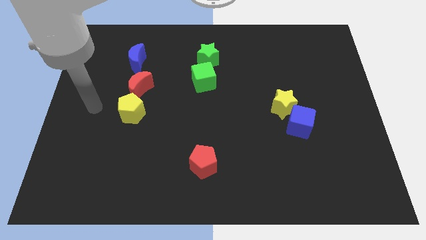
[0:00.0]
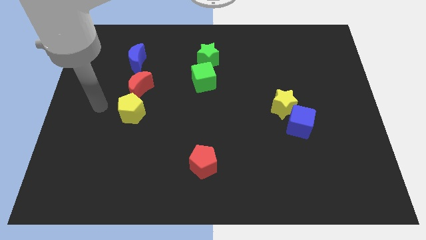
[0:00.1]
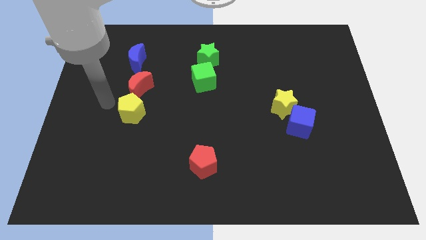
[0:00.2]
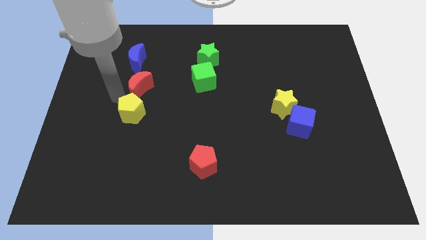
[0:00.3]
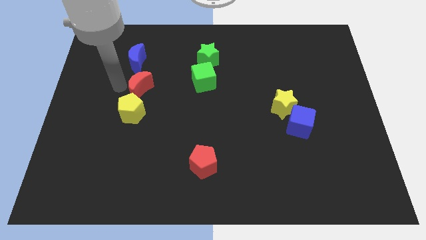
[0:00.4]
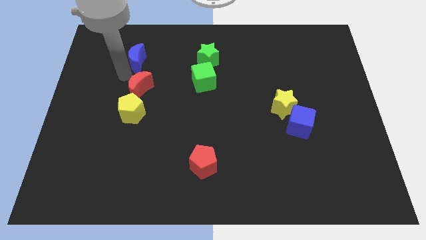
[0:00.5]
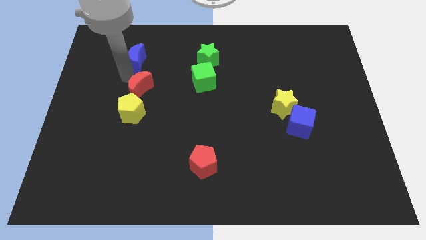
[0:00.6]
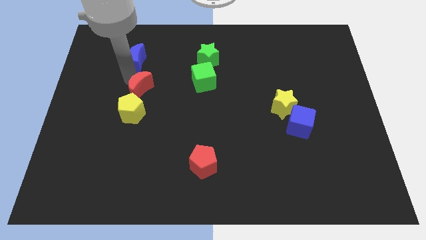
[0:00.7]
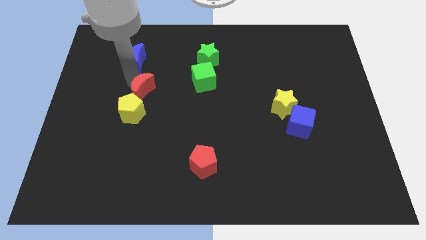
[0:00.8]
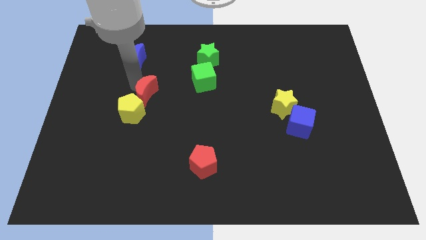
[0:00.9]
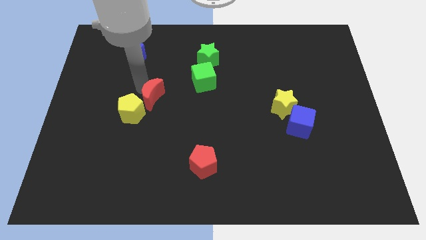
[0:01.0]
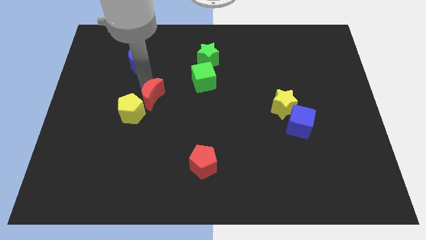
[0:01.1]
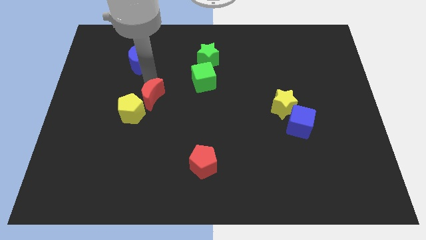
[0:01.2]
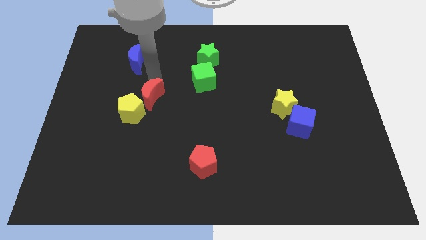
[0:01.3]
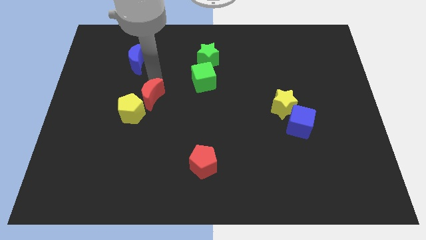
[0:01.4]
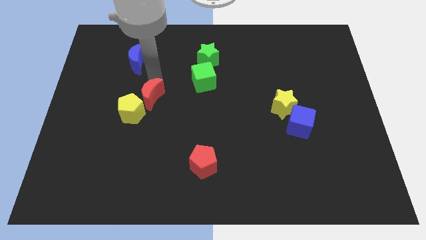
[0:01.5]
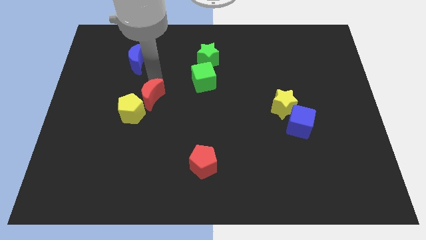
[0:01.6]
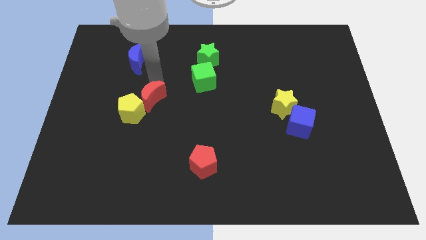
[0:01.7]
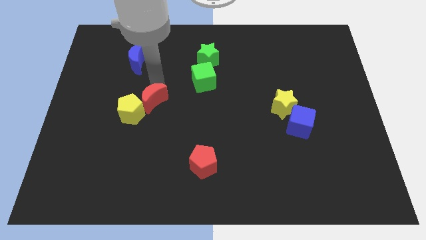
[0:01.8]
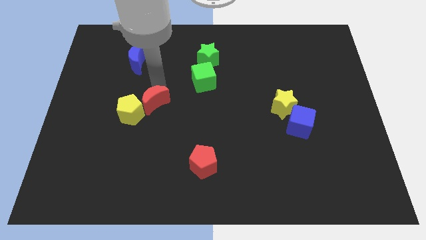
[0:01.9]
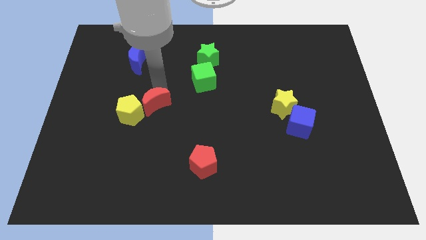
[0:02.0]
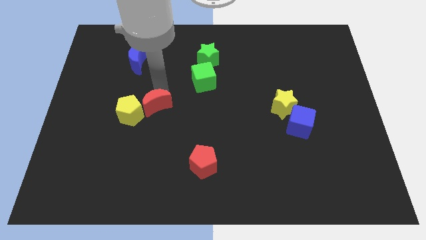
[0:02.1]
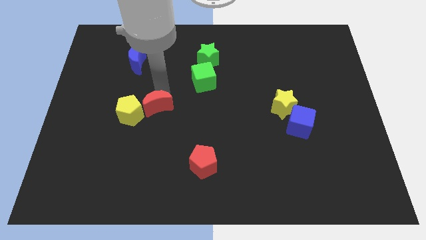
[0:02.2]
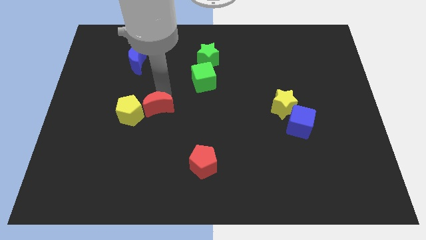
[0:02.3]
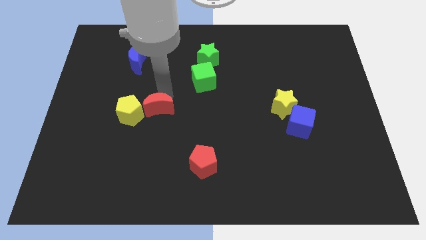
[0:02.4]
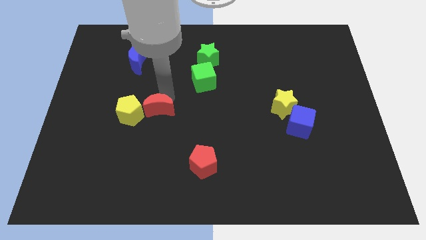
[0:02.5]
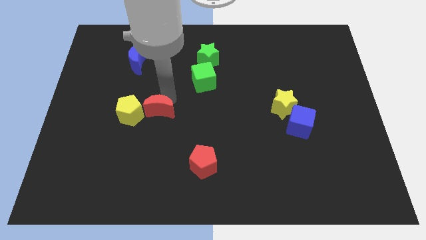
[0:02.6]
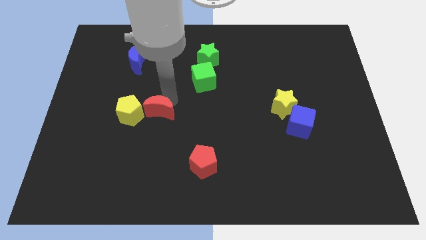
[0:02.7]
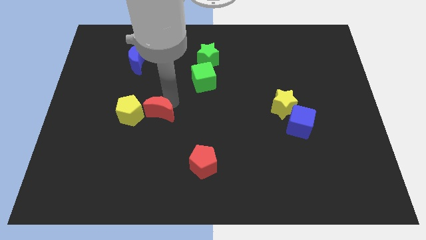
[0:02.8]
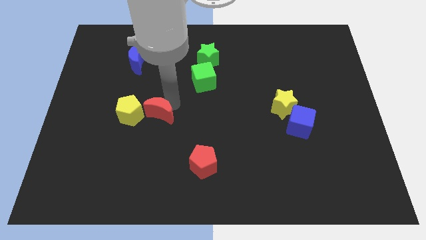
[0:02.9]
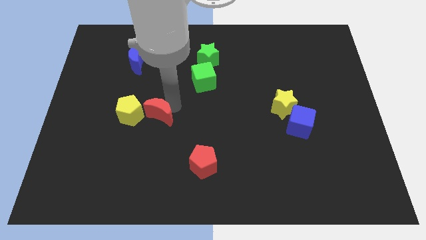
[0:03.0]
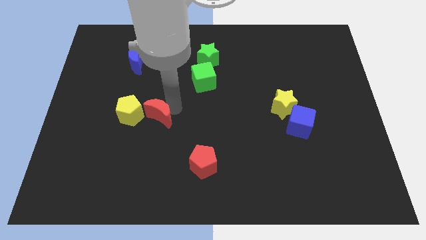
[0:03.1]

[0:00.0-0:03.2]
slide the red moon down slightly

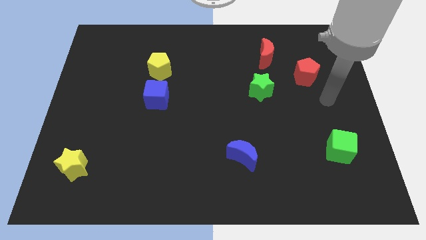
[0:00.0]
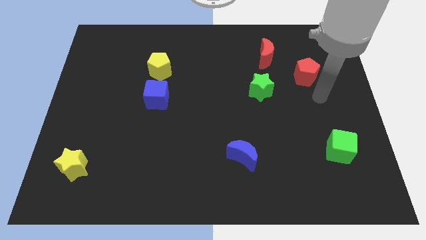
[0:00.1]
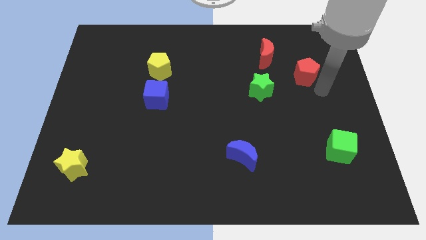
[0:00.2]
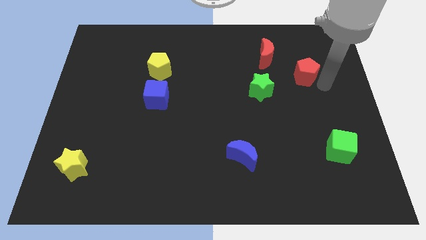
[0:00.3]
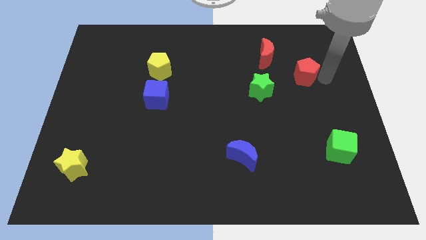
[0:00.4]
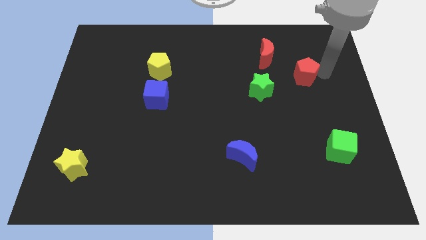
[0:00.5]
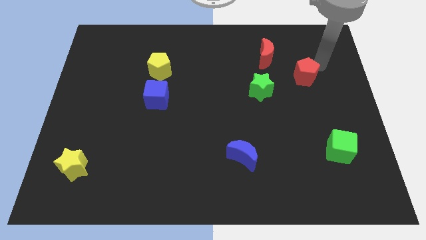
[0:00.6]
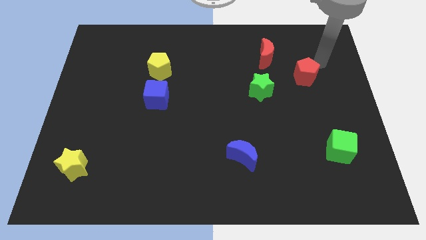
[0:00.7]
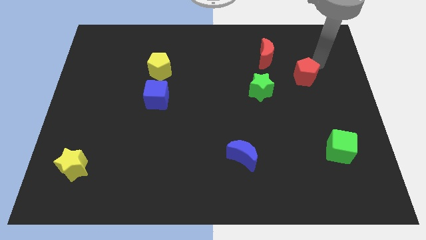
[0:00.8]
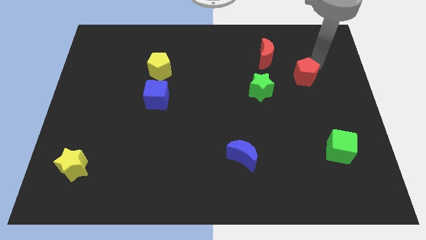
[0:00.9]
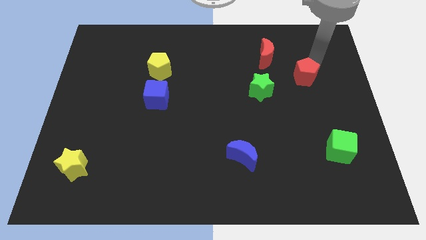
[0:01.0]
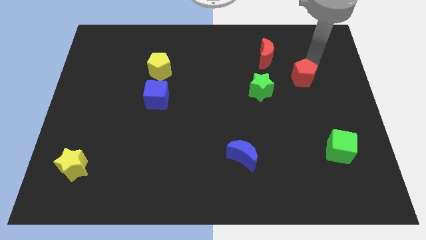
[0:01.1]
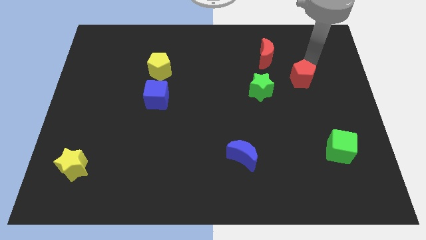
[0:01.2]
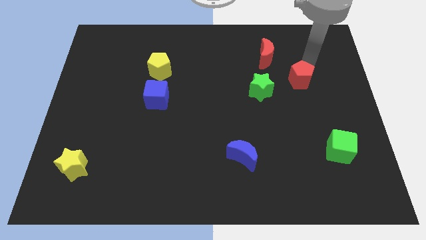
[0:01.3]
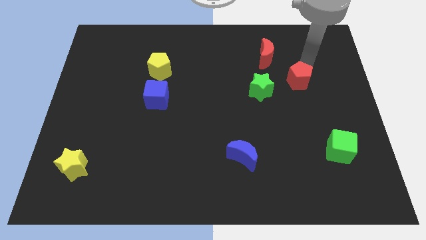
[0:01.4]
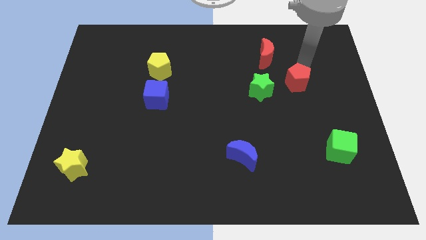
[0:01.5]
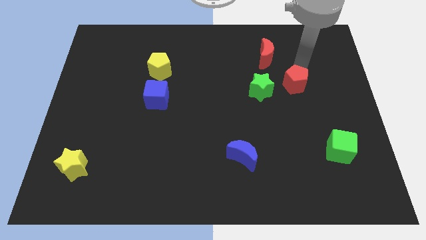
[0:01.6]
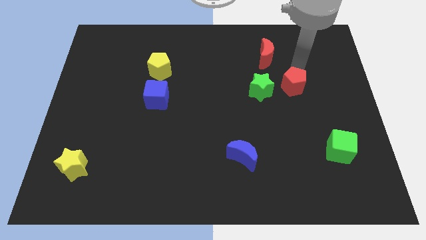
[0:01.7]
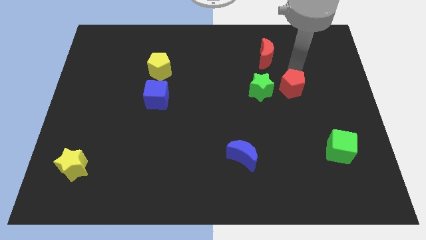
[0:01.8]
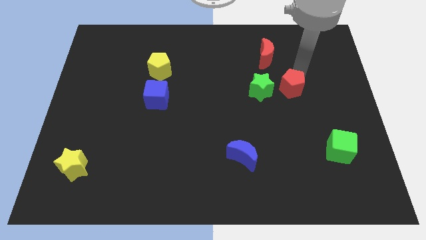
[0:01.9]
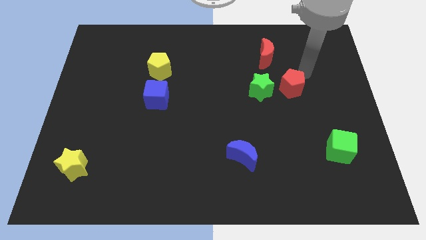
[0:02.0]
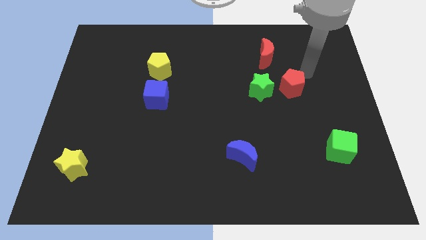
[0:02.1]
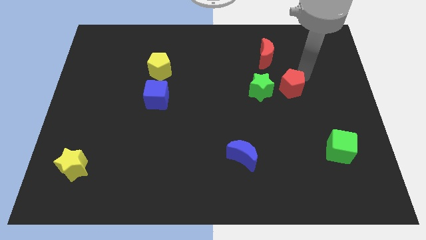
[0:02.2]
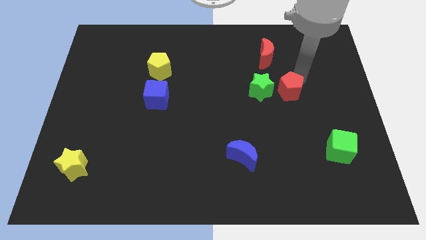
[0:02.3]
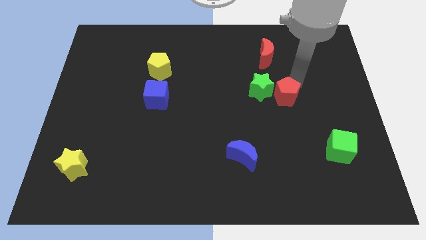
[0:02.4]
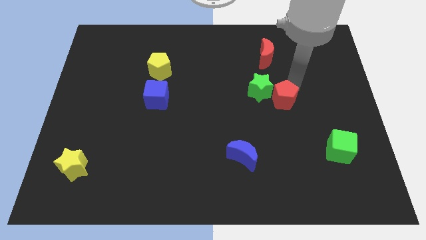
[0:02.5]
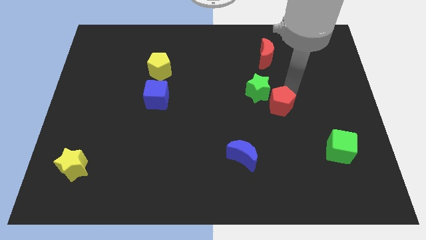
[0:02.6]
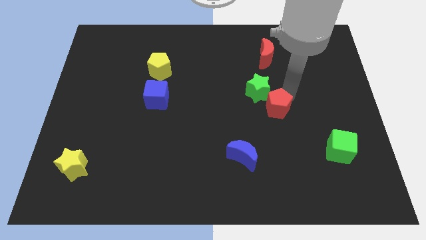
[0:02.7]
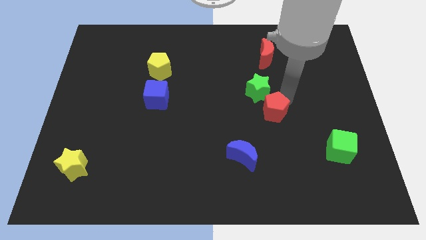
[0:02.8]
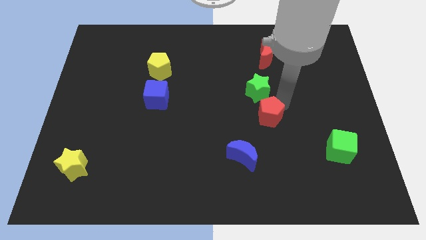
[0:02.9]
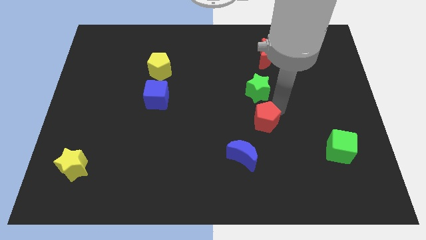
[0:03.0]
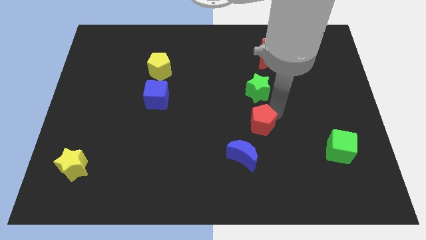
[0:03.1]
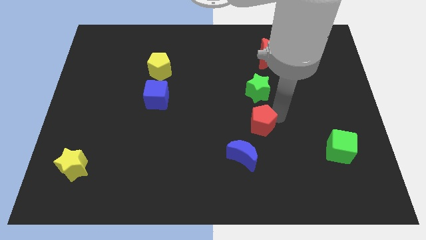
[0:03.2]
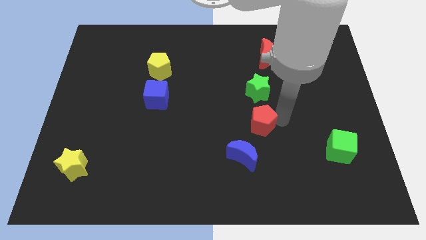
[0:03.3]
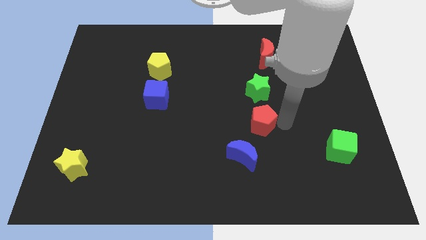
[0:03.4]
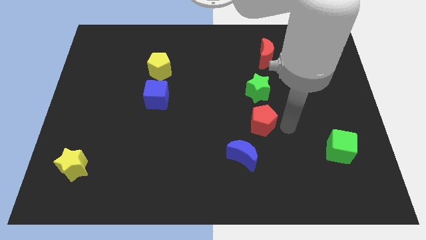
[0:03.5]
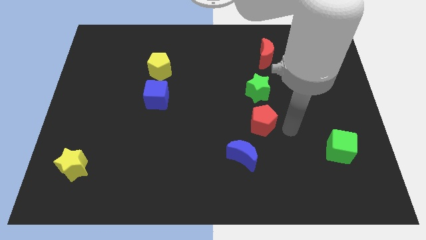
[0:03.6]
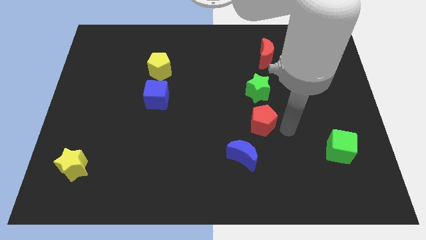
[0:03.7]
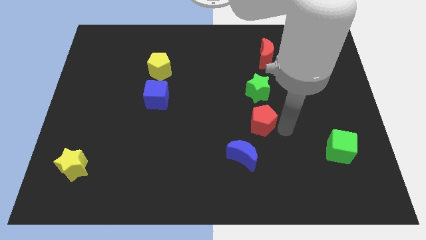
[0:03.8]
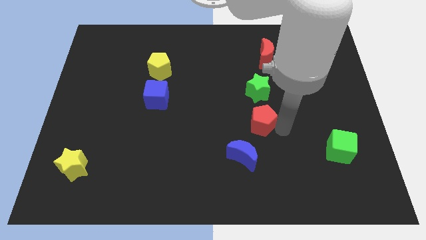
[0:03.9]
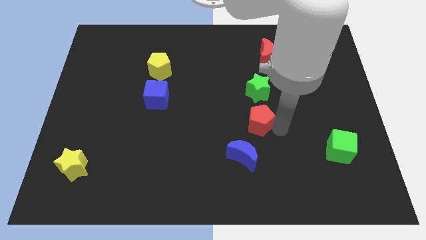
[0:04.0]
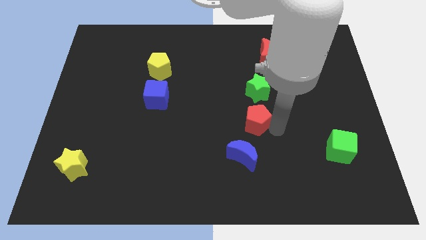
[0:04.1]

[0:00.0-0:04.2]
push the red pentagon down and left

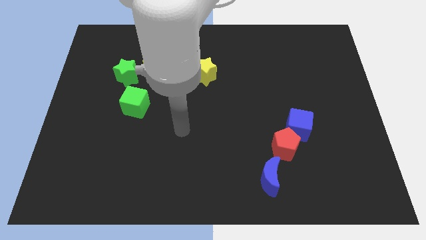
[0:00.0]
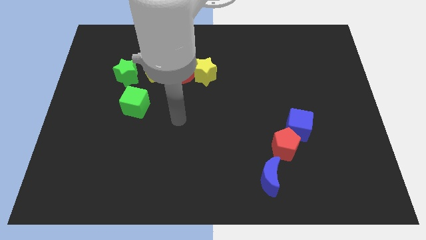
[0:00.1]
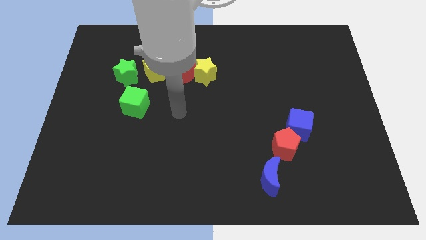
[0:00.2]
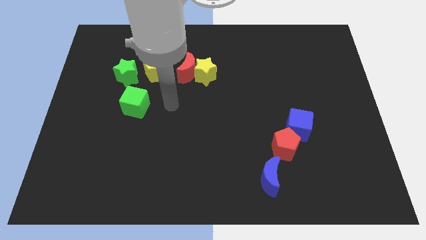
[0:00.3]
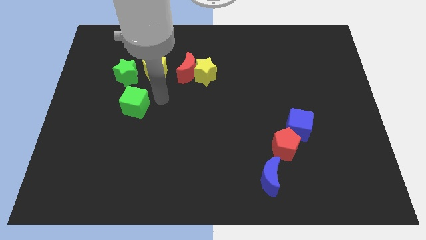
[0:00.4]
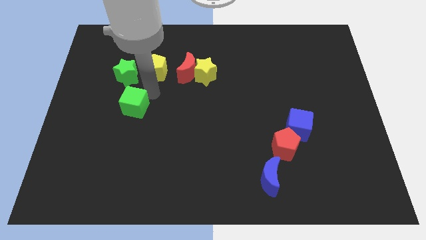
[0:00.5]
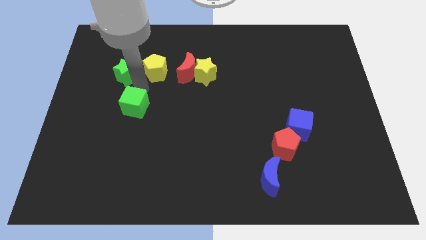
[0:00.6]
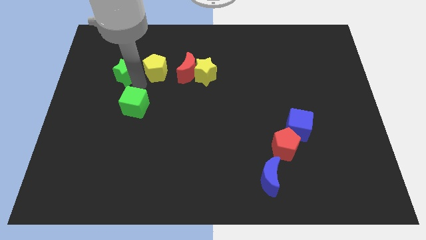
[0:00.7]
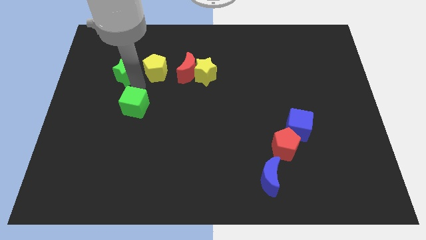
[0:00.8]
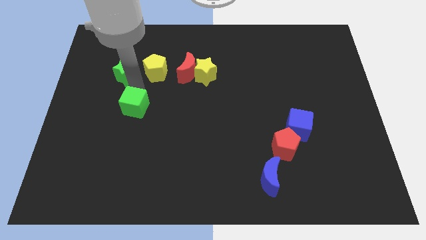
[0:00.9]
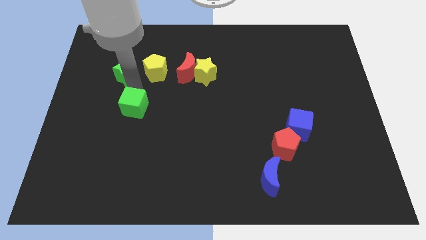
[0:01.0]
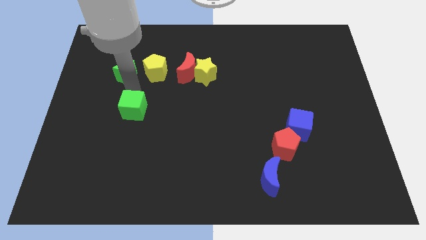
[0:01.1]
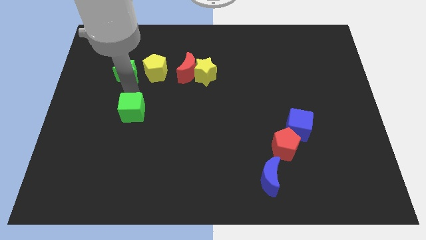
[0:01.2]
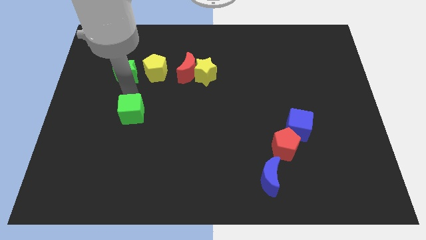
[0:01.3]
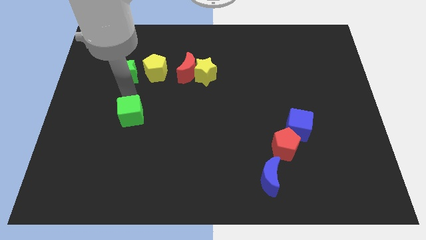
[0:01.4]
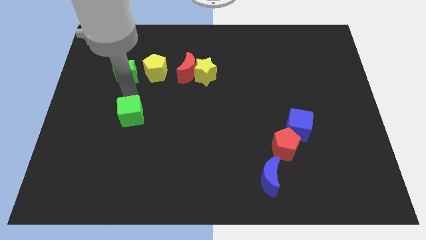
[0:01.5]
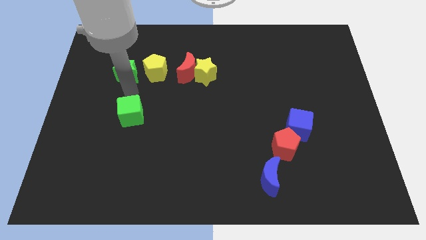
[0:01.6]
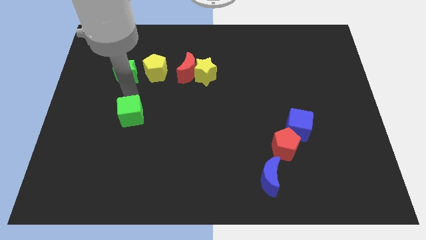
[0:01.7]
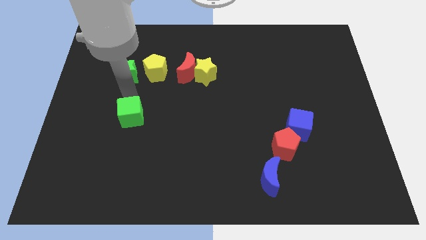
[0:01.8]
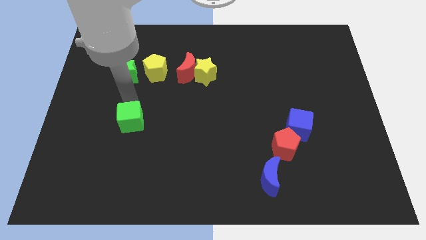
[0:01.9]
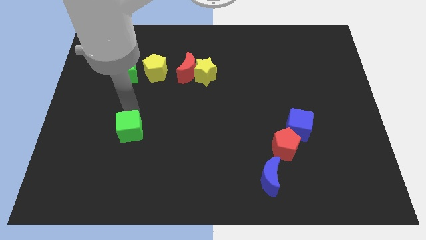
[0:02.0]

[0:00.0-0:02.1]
push the green cube down slightly
